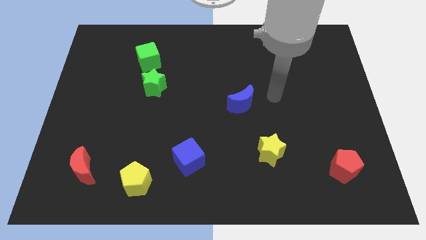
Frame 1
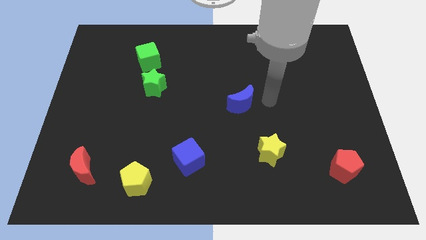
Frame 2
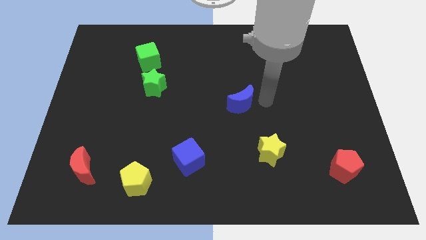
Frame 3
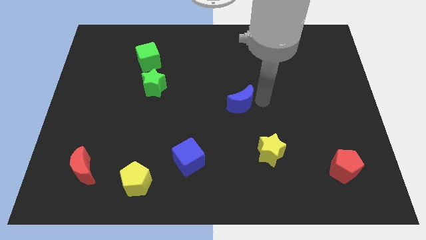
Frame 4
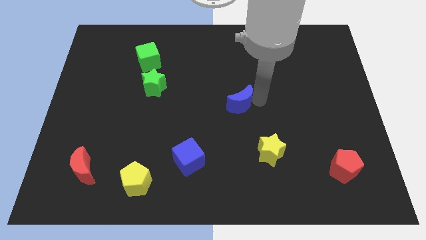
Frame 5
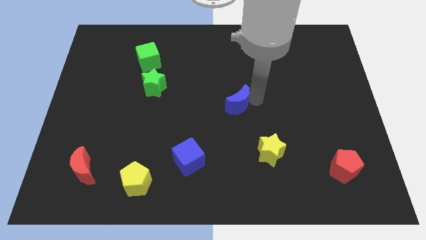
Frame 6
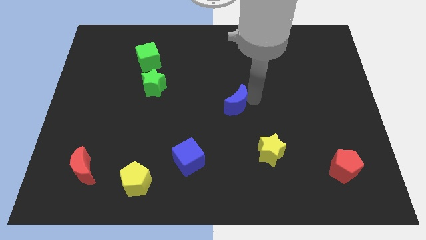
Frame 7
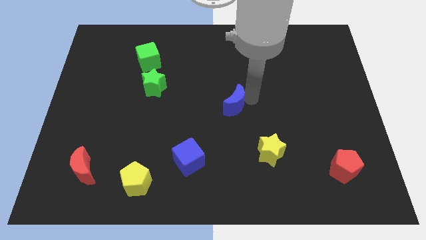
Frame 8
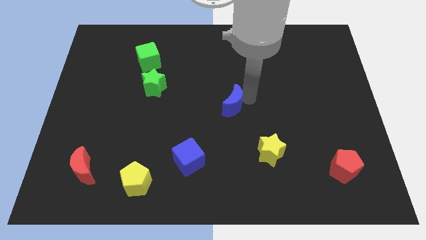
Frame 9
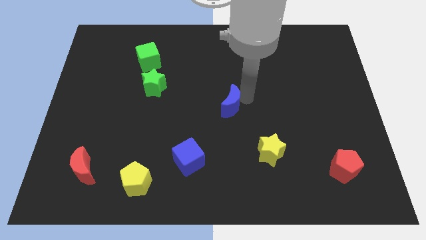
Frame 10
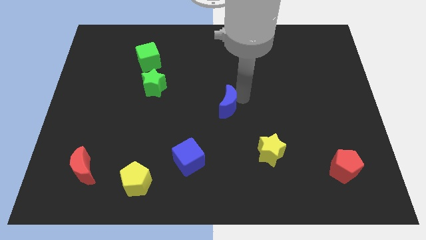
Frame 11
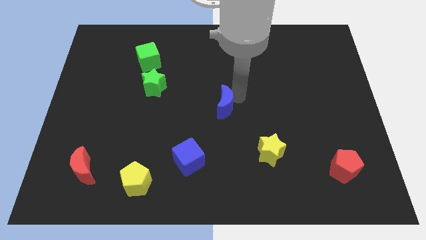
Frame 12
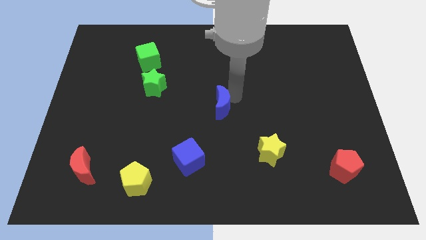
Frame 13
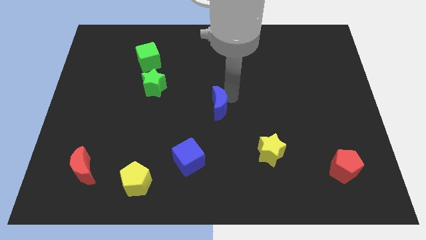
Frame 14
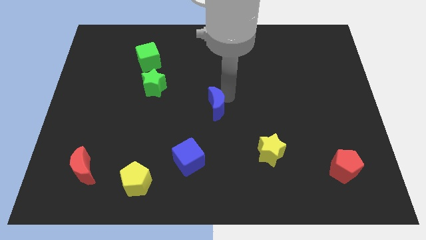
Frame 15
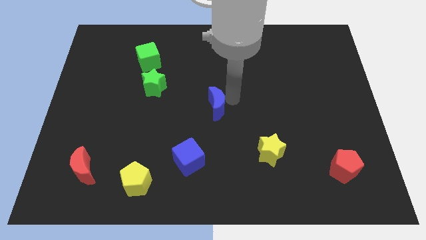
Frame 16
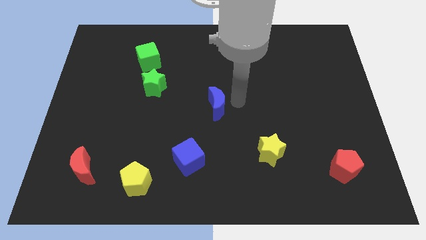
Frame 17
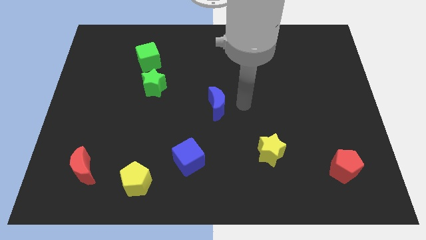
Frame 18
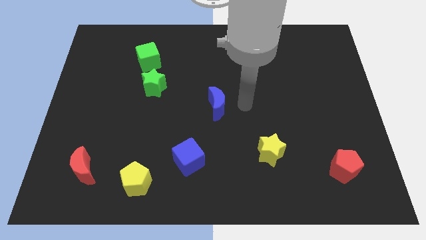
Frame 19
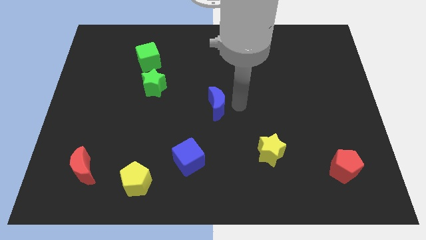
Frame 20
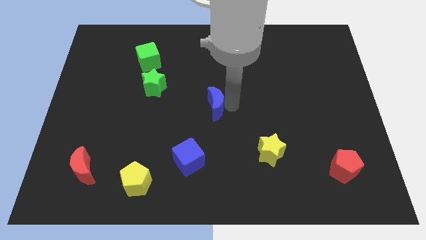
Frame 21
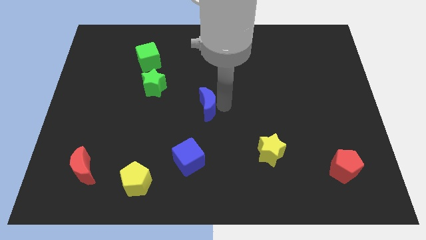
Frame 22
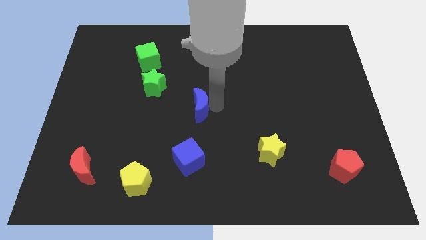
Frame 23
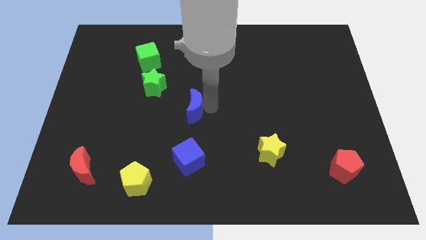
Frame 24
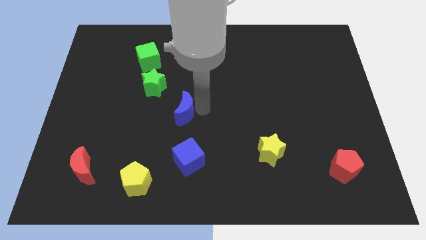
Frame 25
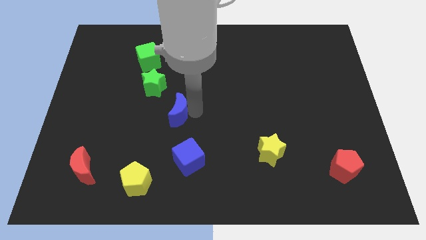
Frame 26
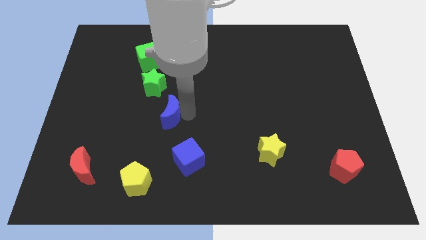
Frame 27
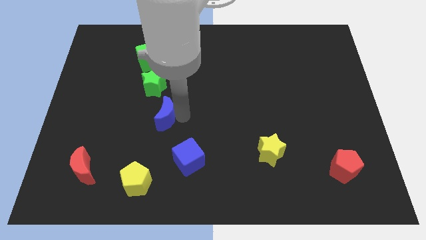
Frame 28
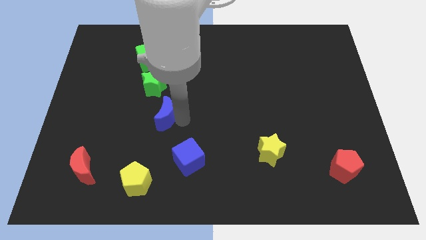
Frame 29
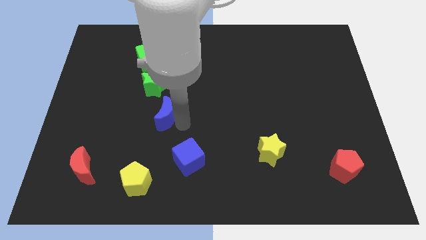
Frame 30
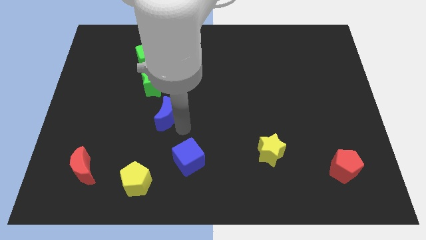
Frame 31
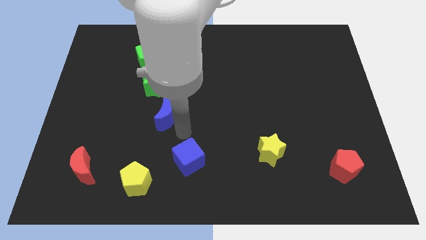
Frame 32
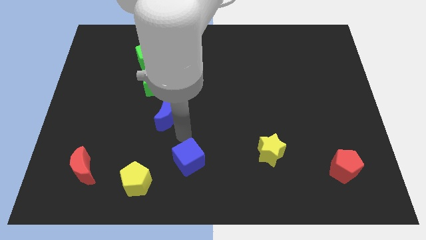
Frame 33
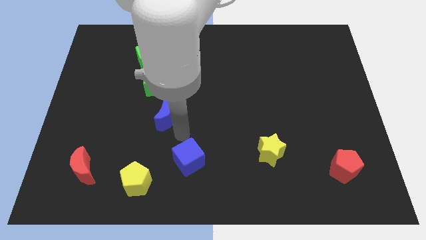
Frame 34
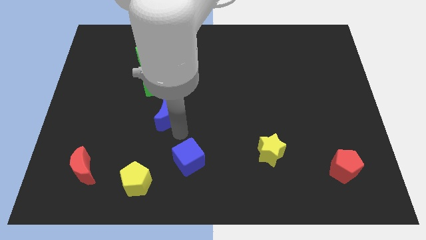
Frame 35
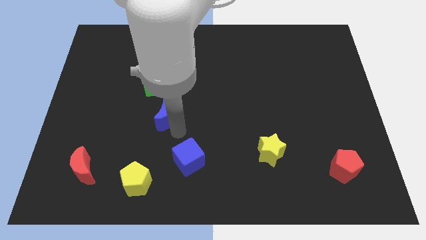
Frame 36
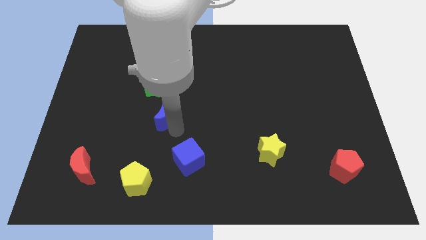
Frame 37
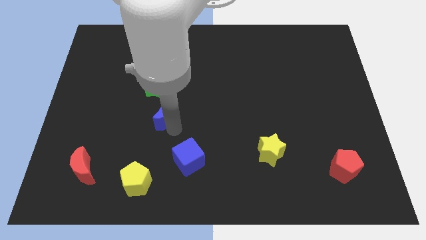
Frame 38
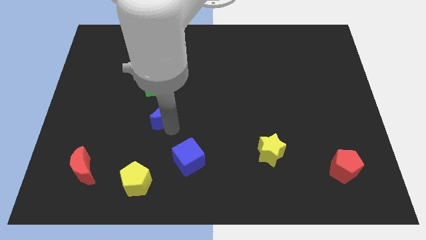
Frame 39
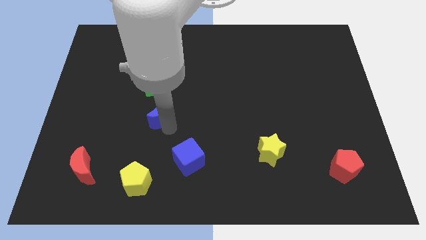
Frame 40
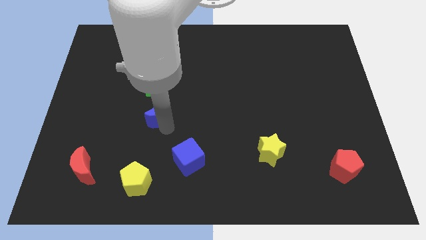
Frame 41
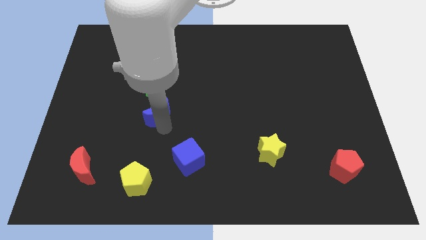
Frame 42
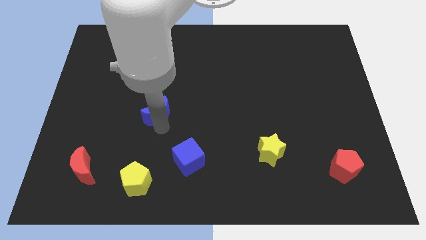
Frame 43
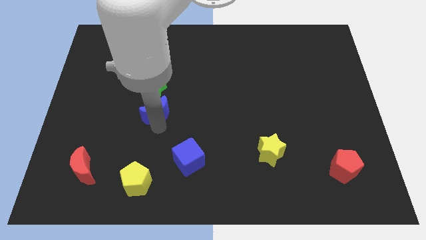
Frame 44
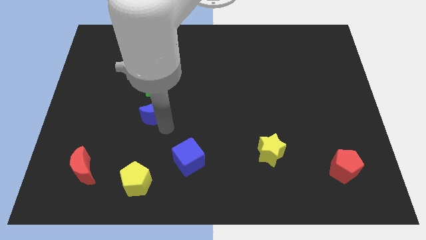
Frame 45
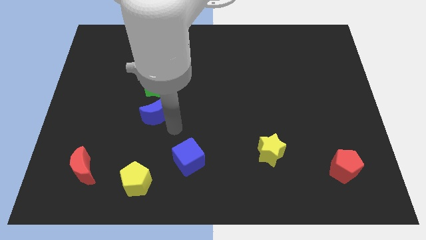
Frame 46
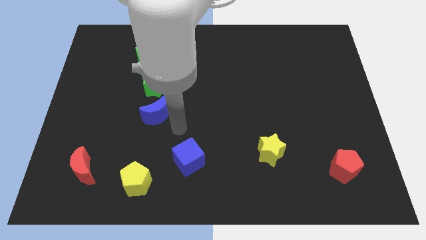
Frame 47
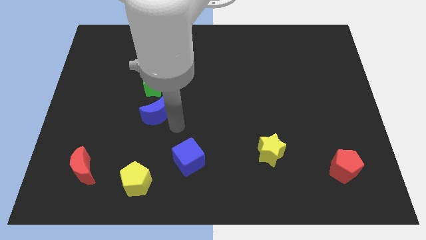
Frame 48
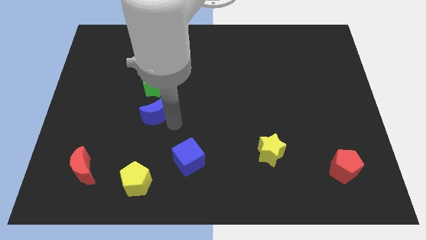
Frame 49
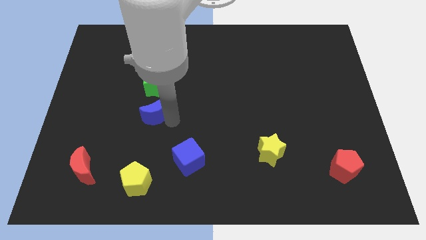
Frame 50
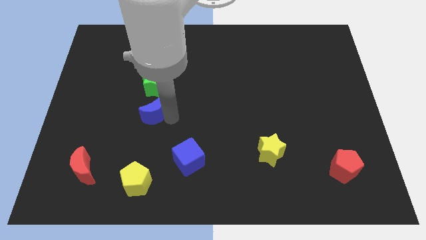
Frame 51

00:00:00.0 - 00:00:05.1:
push the blue moon left

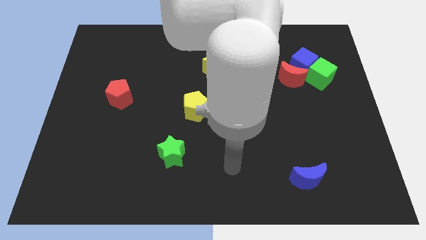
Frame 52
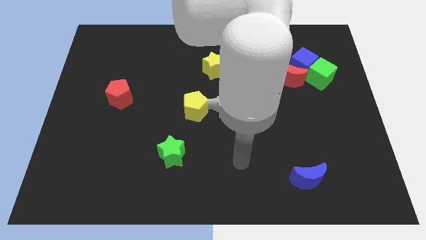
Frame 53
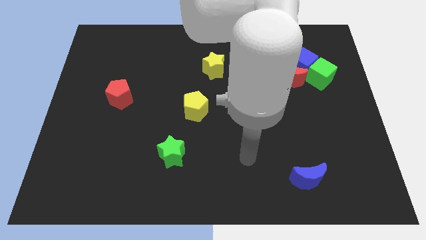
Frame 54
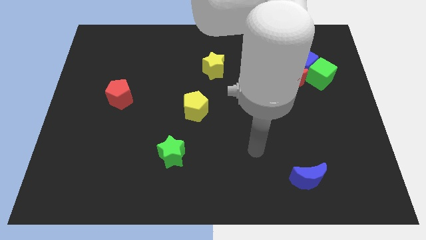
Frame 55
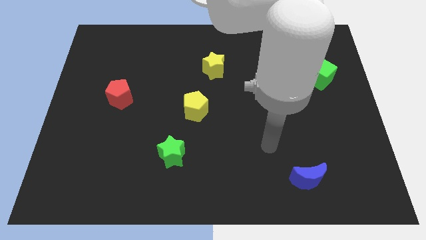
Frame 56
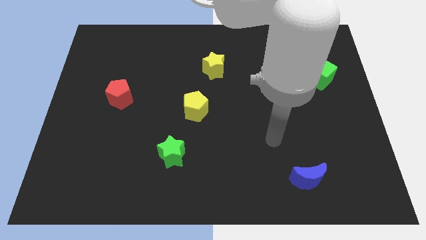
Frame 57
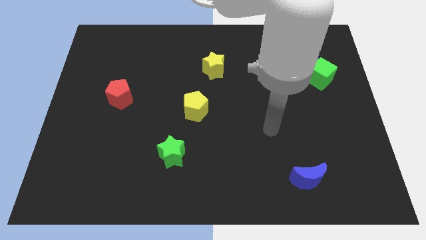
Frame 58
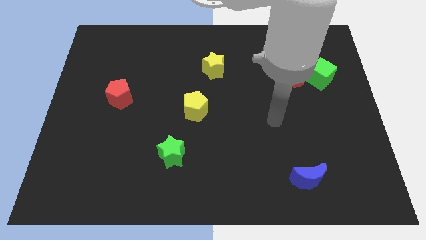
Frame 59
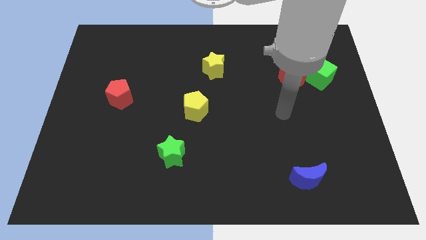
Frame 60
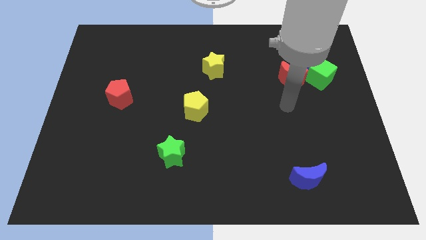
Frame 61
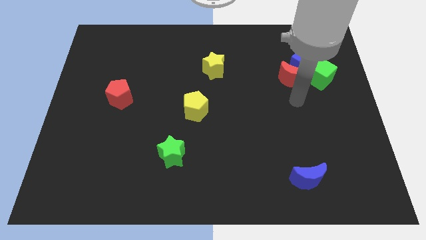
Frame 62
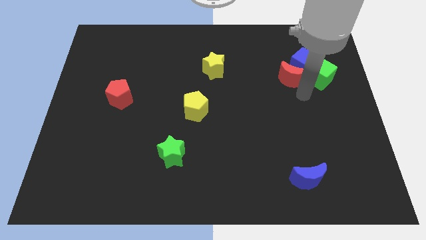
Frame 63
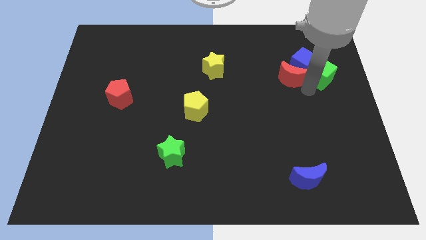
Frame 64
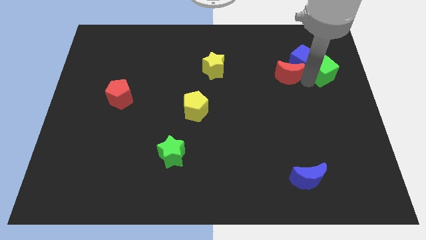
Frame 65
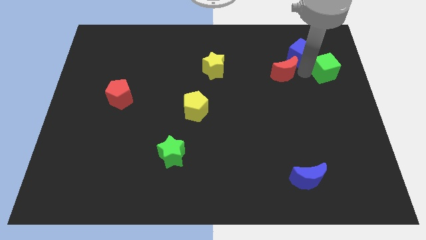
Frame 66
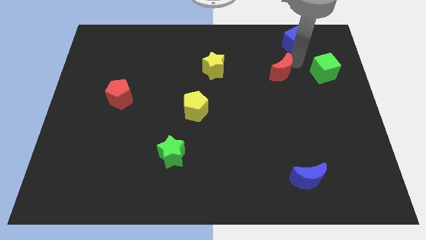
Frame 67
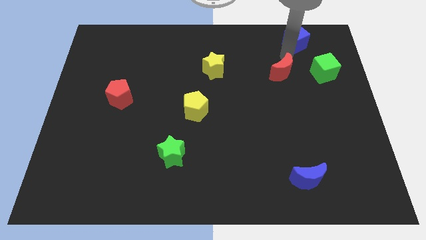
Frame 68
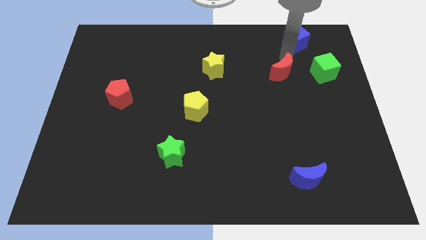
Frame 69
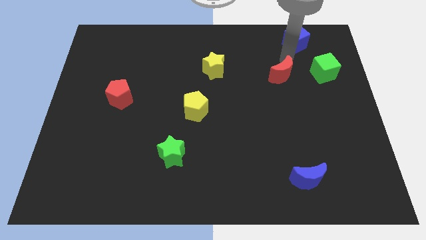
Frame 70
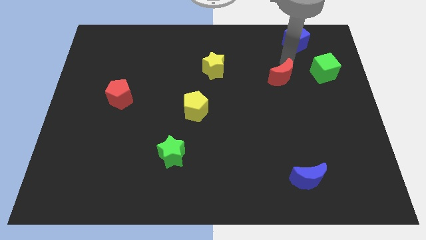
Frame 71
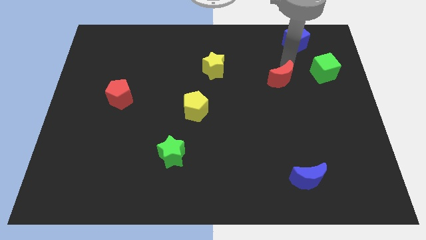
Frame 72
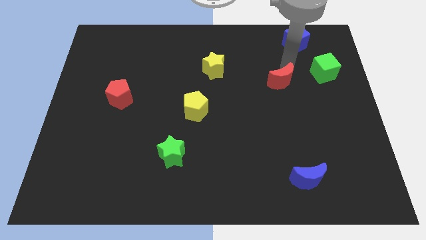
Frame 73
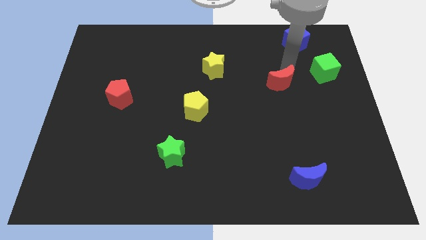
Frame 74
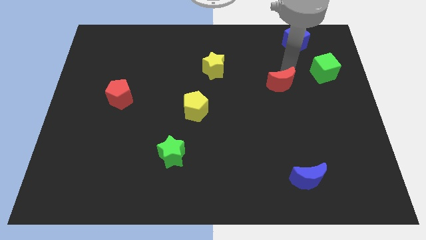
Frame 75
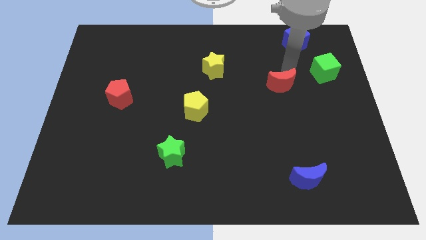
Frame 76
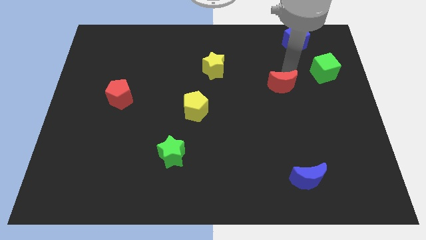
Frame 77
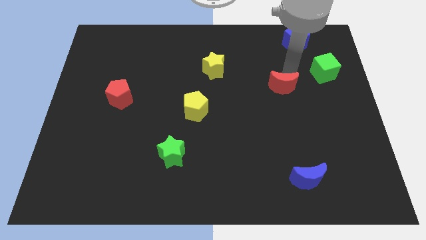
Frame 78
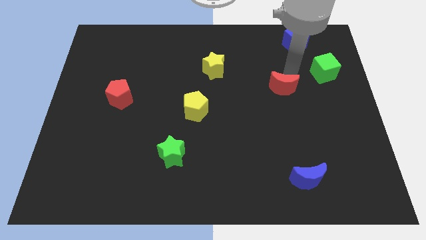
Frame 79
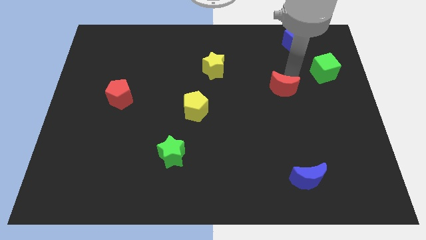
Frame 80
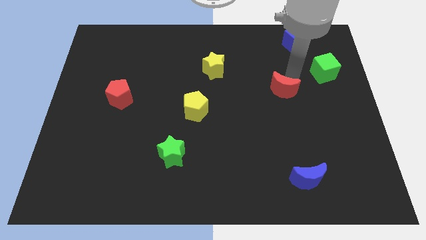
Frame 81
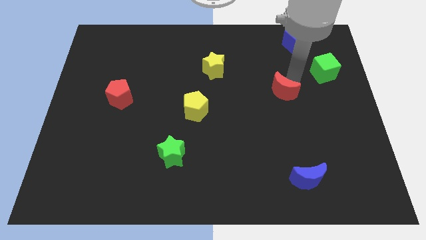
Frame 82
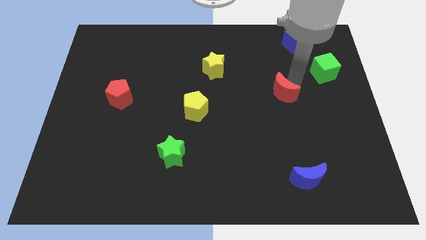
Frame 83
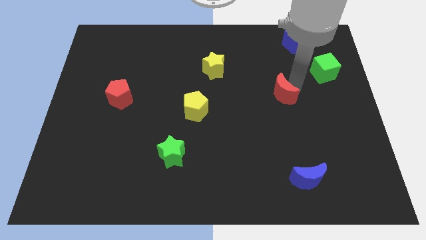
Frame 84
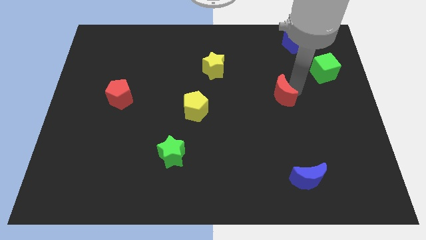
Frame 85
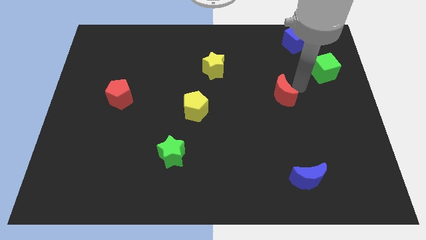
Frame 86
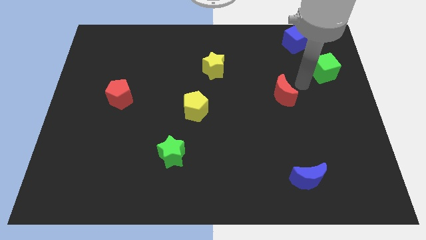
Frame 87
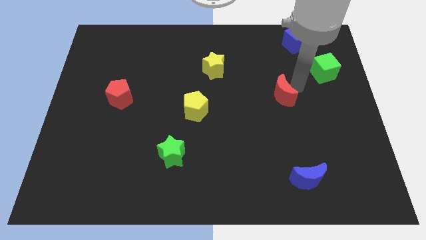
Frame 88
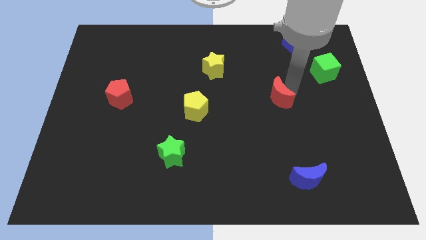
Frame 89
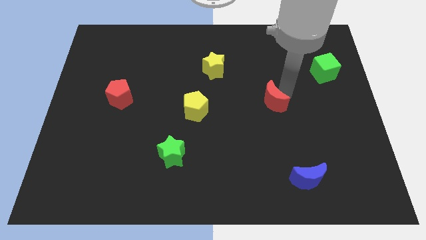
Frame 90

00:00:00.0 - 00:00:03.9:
push the red moon a bit down and to the left
